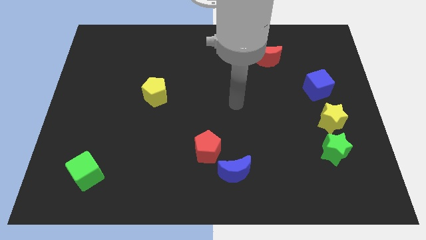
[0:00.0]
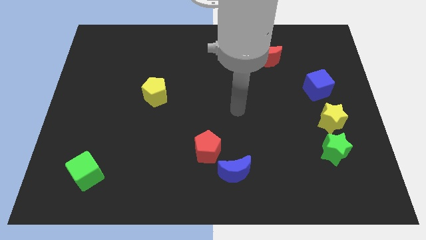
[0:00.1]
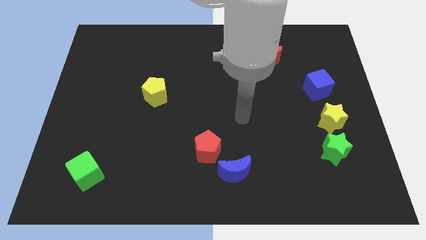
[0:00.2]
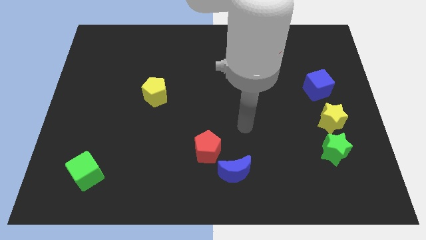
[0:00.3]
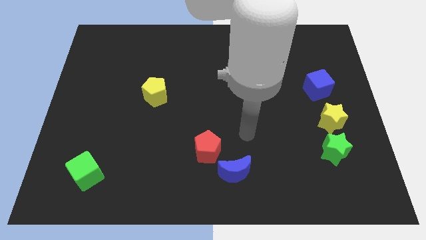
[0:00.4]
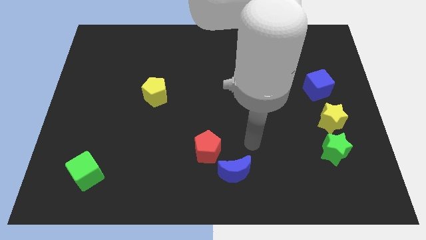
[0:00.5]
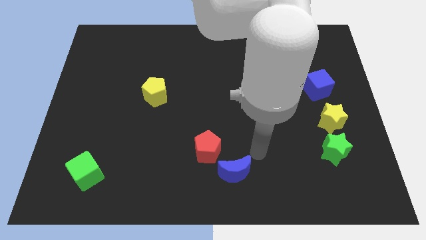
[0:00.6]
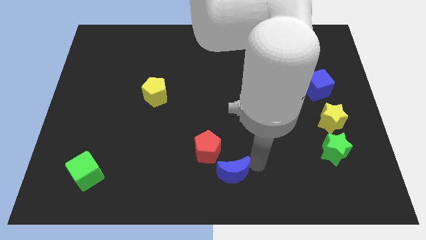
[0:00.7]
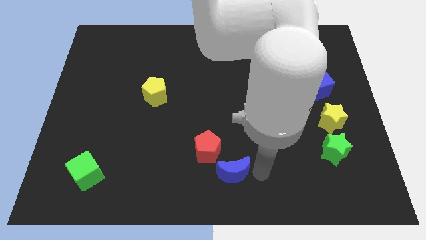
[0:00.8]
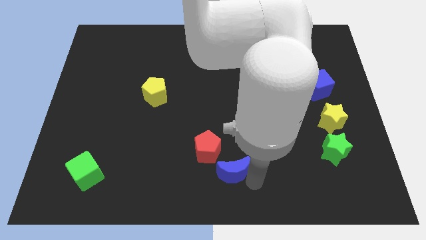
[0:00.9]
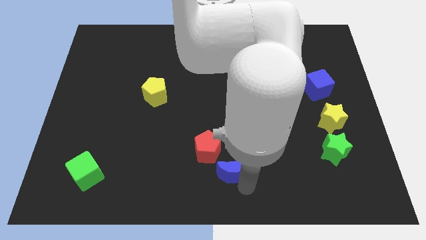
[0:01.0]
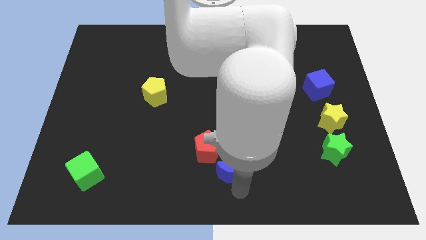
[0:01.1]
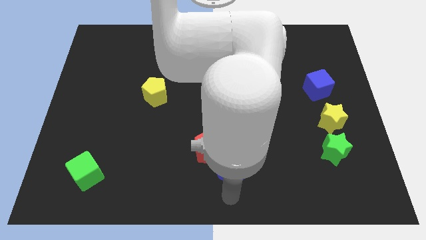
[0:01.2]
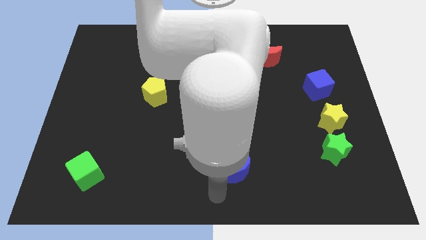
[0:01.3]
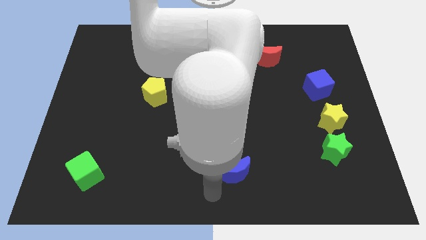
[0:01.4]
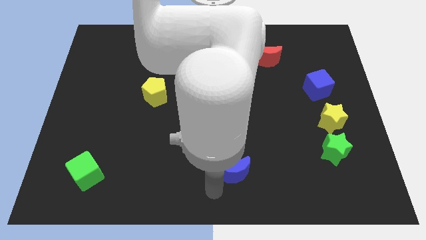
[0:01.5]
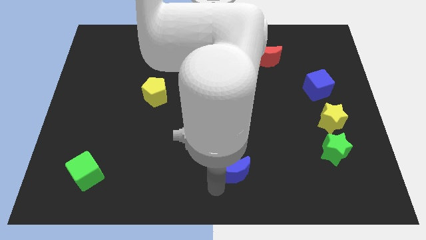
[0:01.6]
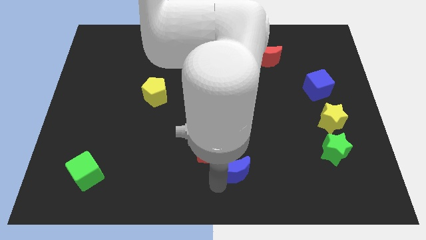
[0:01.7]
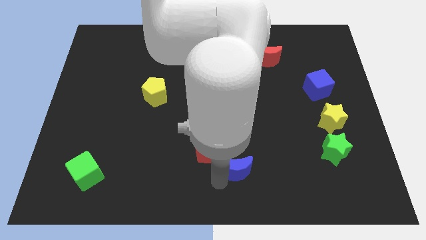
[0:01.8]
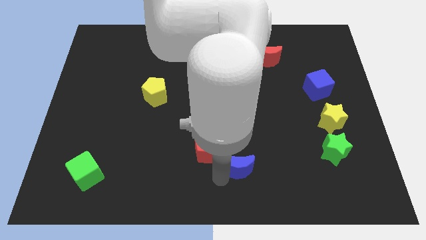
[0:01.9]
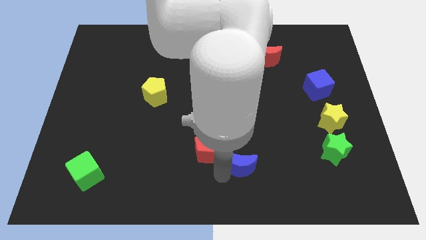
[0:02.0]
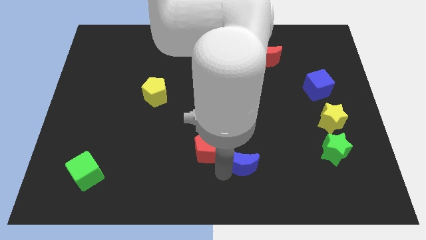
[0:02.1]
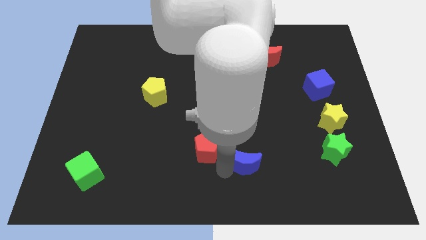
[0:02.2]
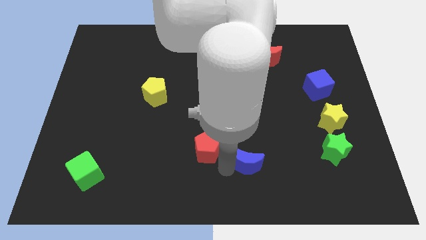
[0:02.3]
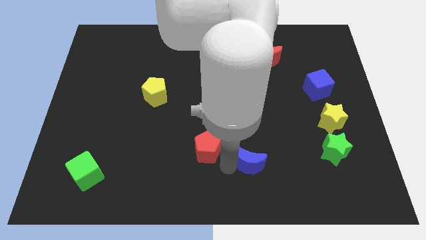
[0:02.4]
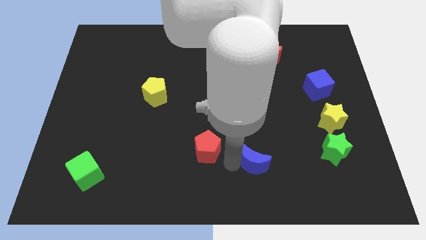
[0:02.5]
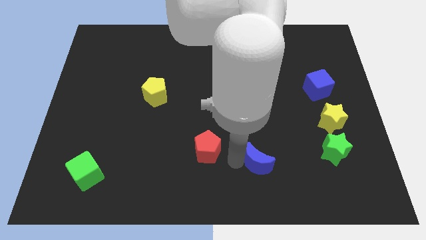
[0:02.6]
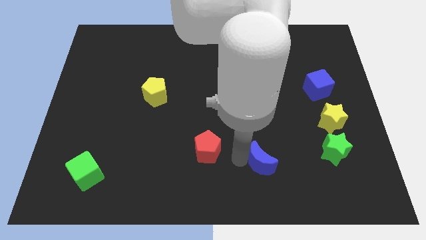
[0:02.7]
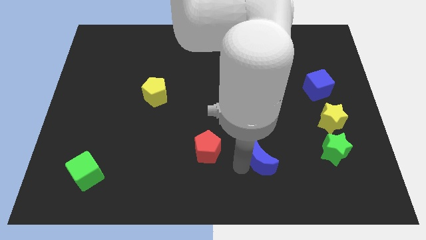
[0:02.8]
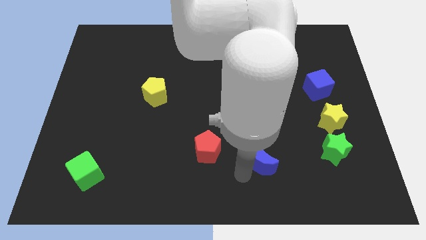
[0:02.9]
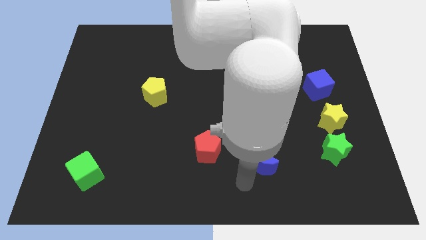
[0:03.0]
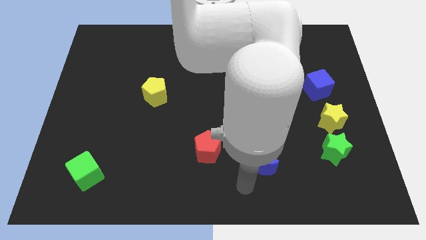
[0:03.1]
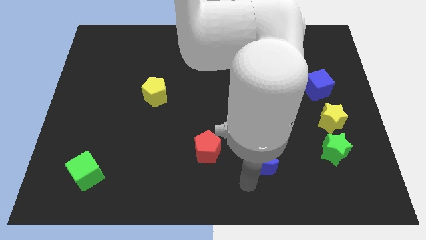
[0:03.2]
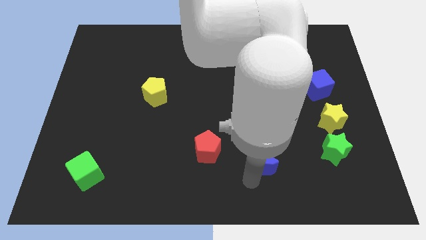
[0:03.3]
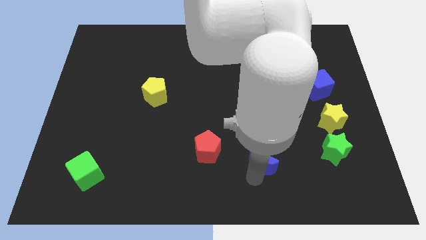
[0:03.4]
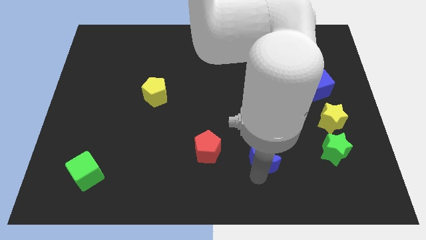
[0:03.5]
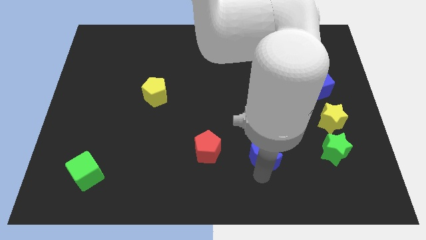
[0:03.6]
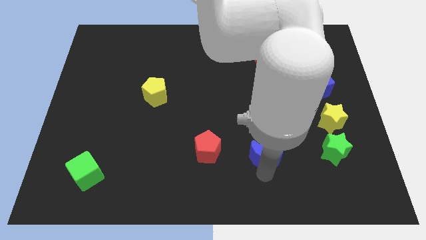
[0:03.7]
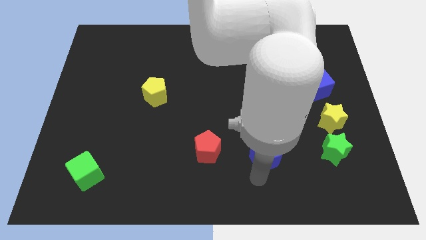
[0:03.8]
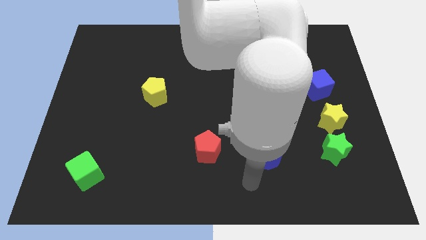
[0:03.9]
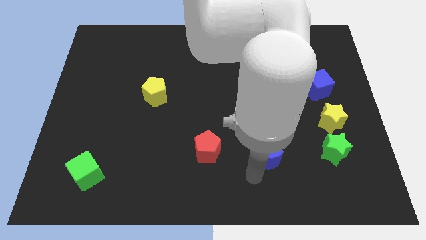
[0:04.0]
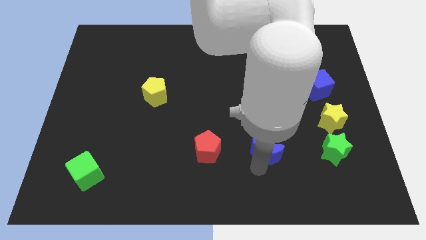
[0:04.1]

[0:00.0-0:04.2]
slide the blue moon up and to the right a bit

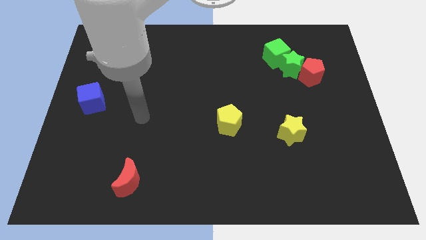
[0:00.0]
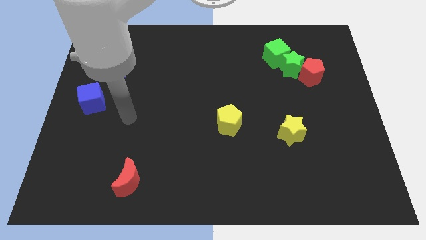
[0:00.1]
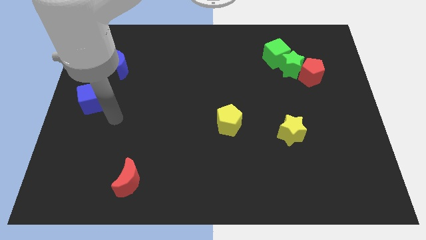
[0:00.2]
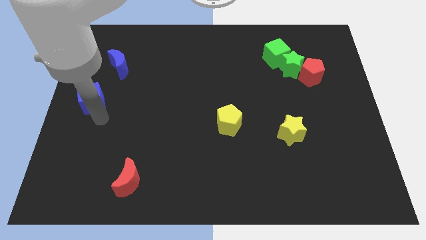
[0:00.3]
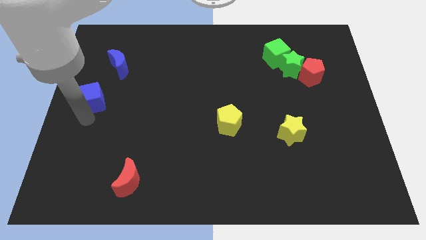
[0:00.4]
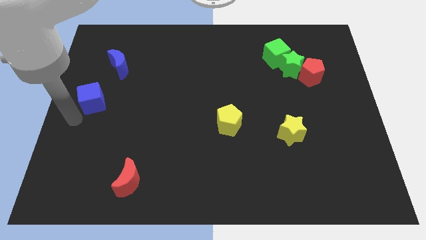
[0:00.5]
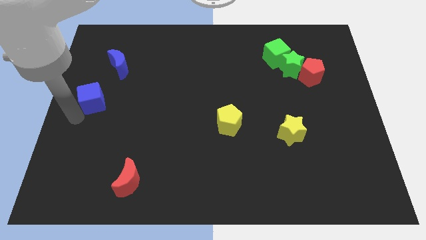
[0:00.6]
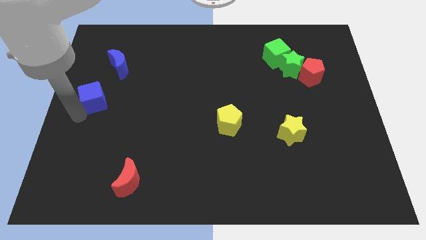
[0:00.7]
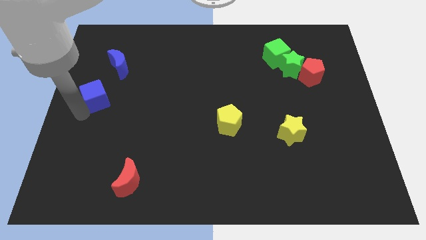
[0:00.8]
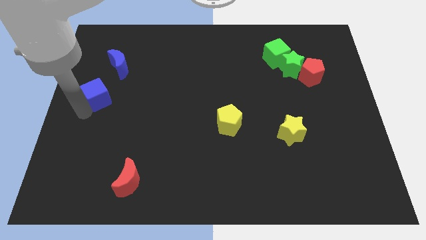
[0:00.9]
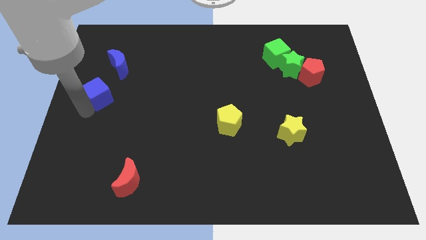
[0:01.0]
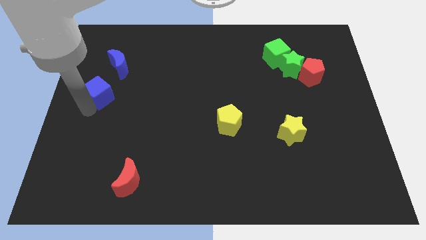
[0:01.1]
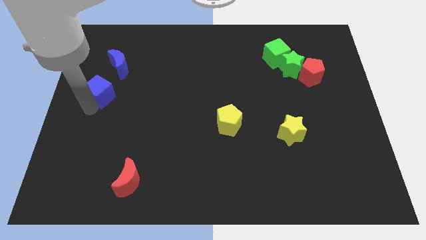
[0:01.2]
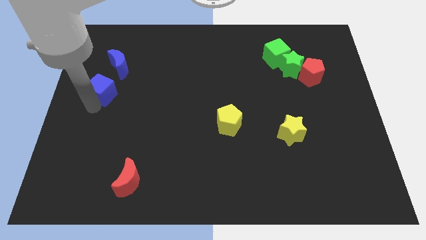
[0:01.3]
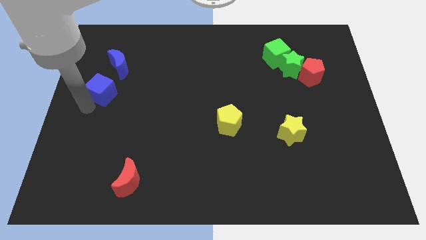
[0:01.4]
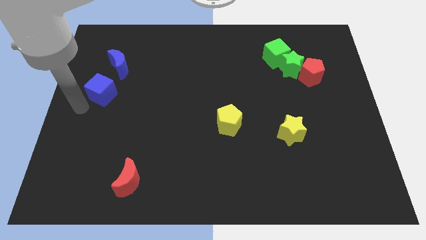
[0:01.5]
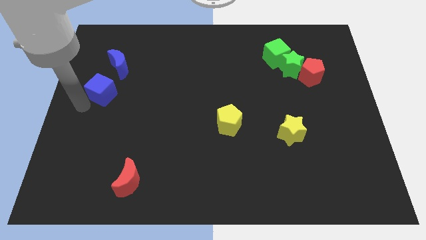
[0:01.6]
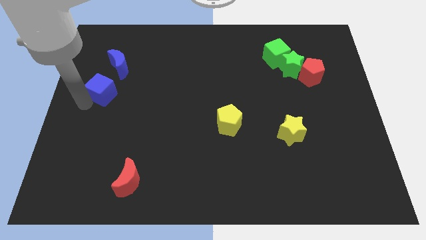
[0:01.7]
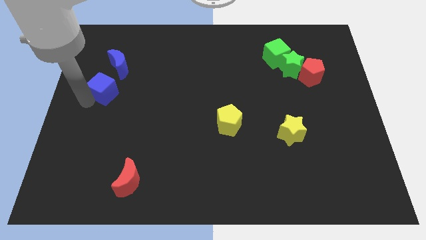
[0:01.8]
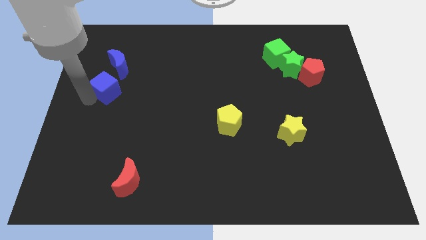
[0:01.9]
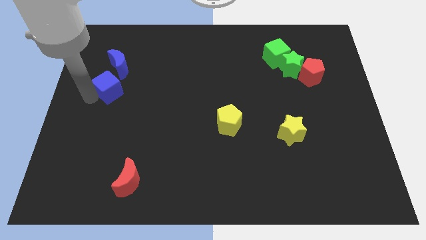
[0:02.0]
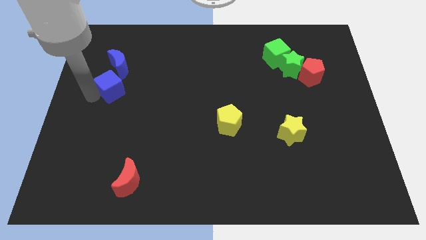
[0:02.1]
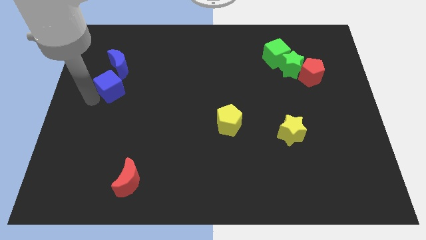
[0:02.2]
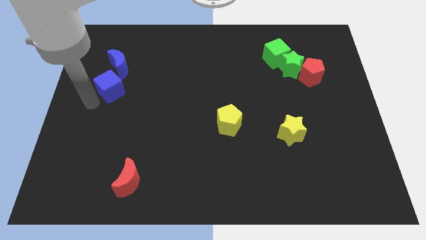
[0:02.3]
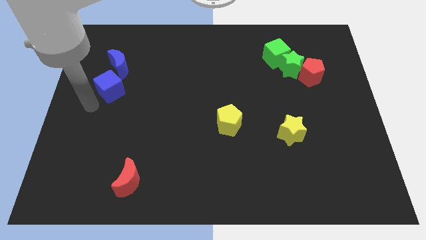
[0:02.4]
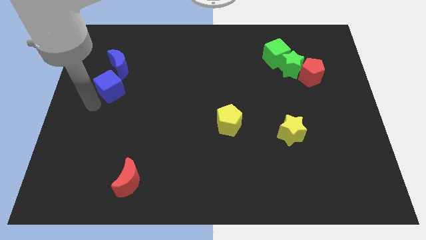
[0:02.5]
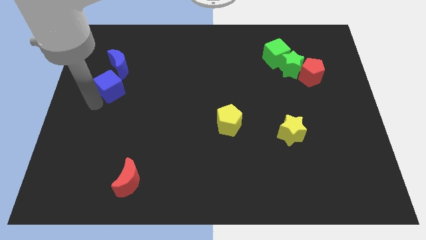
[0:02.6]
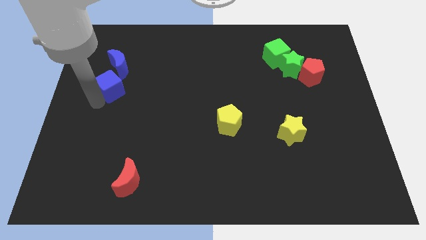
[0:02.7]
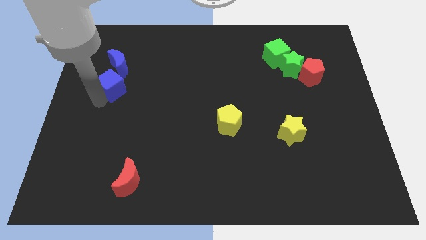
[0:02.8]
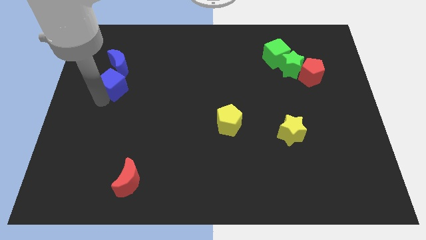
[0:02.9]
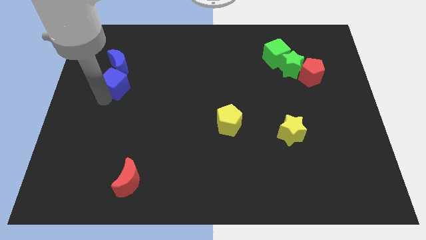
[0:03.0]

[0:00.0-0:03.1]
move the blue cube slightly upwards and right

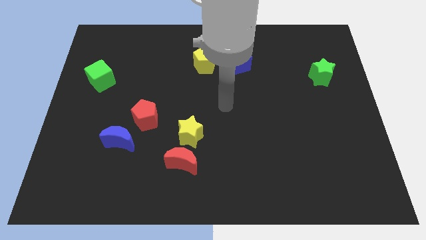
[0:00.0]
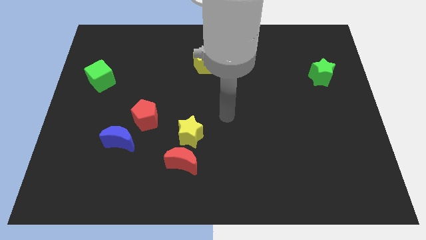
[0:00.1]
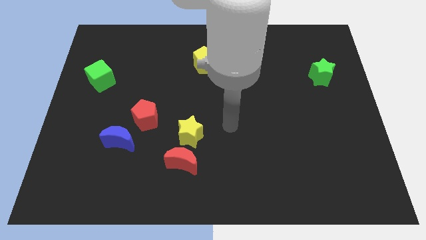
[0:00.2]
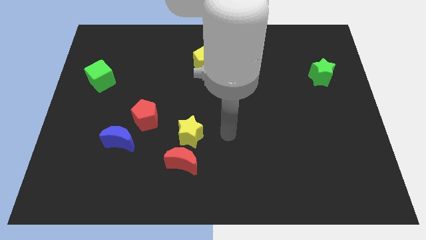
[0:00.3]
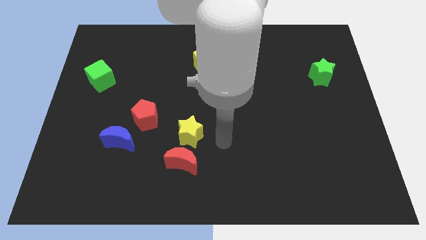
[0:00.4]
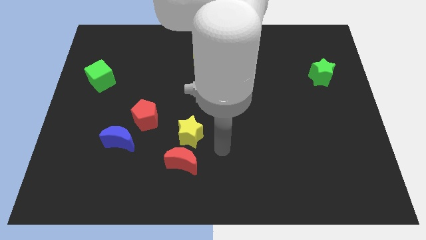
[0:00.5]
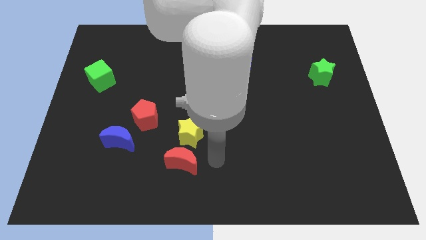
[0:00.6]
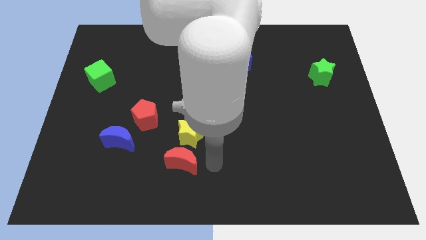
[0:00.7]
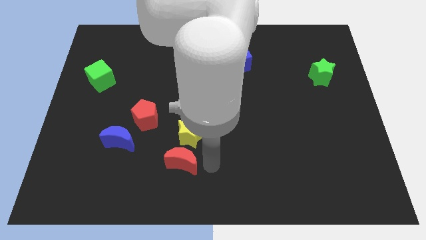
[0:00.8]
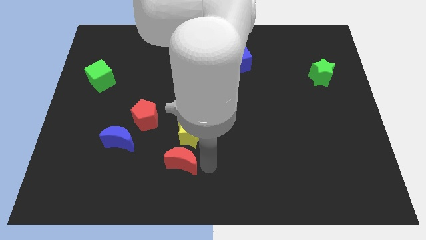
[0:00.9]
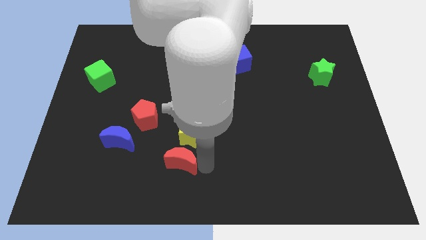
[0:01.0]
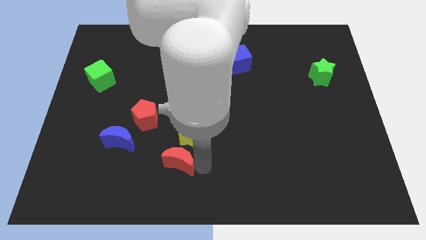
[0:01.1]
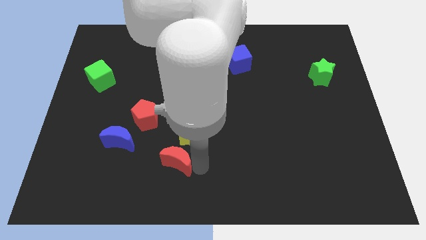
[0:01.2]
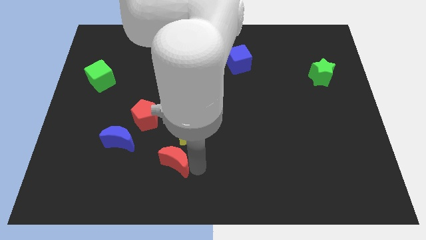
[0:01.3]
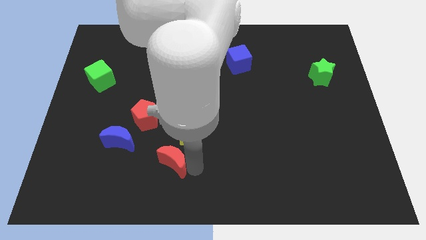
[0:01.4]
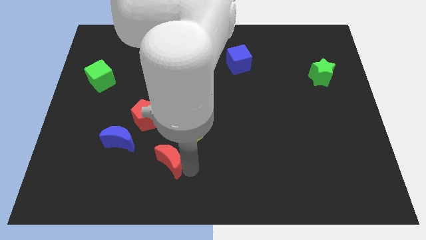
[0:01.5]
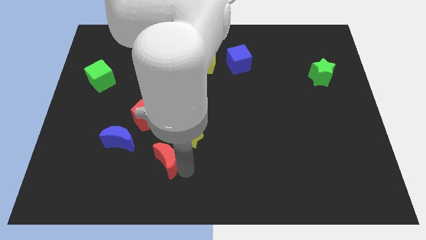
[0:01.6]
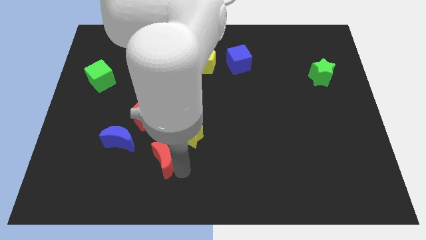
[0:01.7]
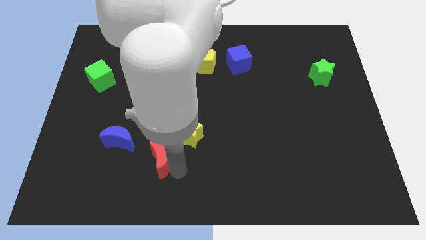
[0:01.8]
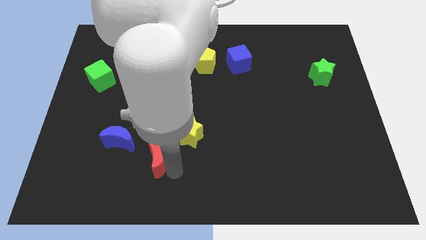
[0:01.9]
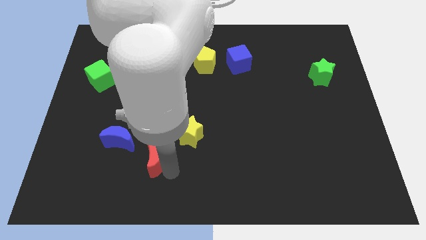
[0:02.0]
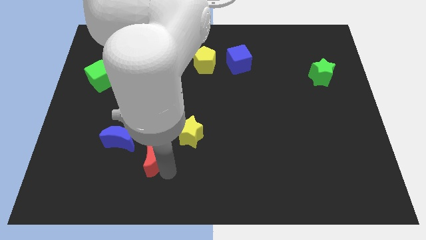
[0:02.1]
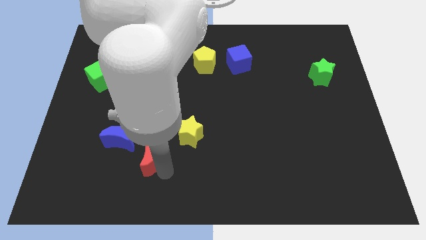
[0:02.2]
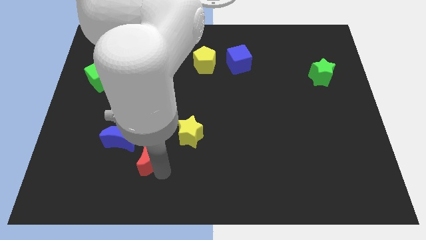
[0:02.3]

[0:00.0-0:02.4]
slightly move the red moon left
